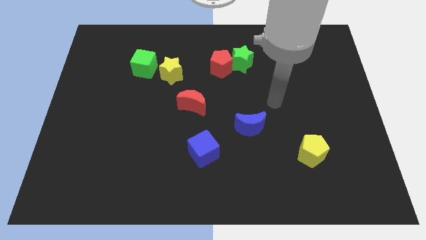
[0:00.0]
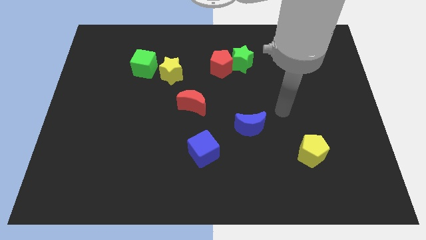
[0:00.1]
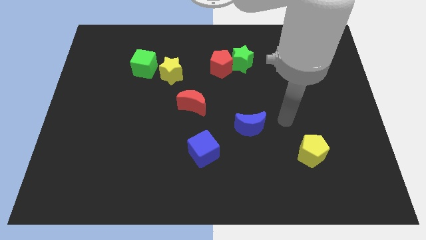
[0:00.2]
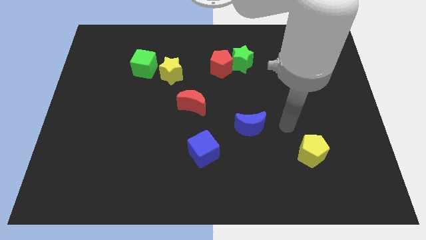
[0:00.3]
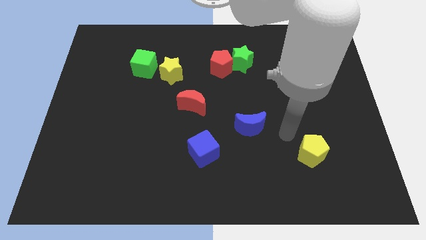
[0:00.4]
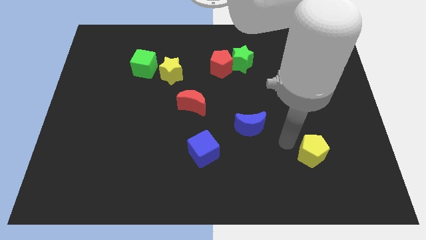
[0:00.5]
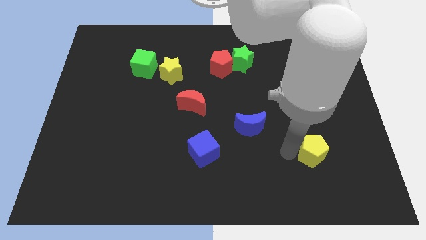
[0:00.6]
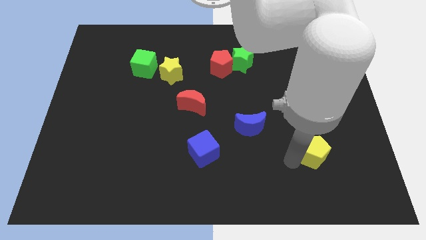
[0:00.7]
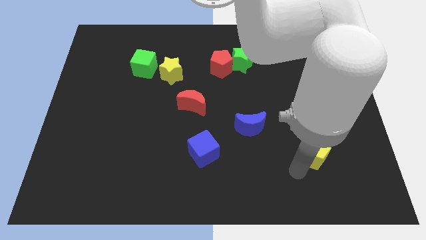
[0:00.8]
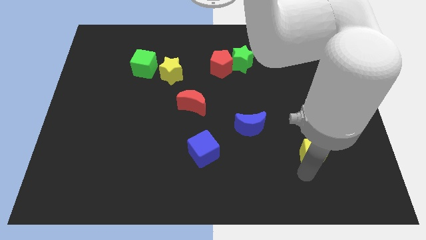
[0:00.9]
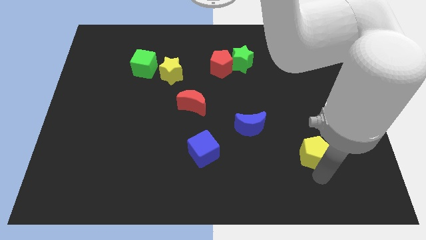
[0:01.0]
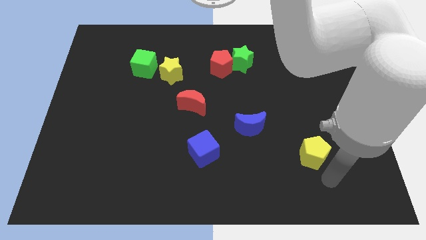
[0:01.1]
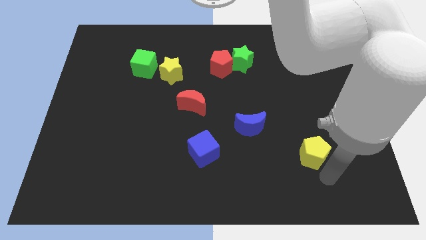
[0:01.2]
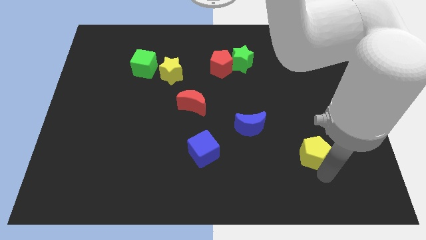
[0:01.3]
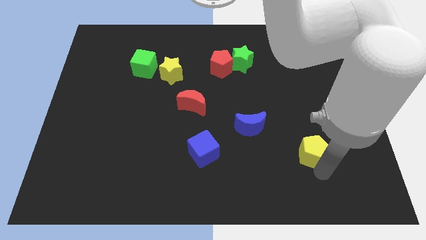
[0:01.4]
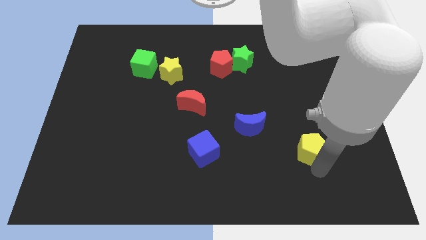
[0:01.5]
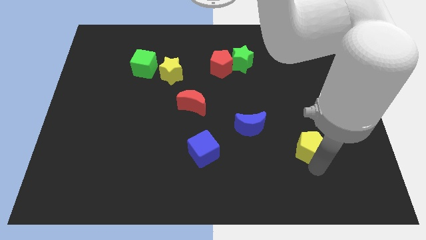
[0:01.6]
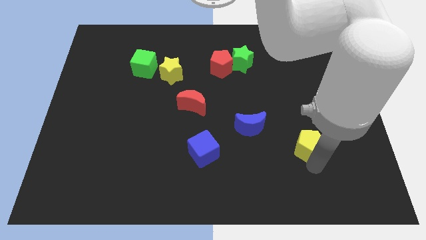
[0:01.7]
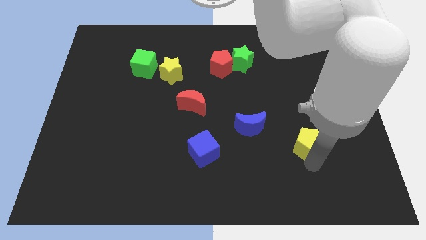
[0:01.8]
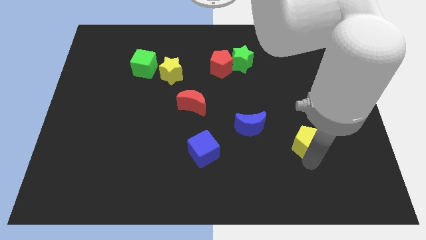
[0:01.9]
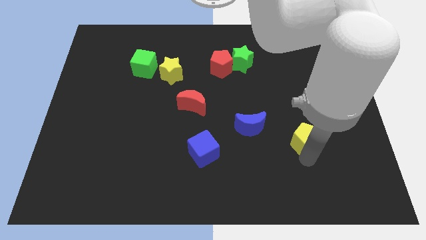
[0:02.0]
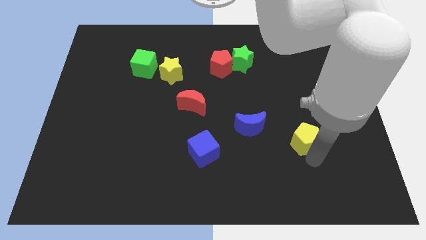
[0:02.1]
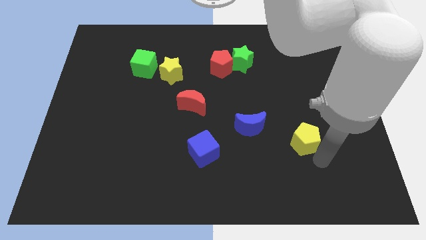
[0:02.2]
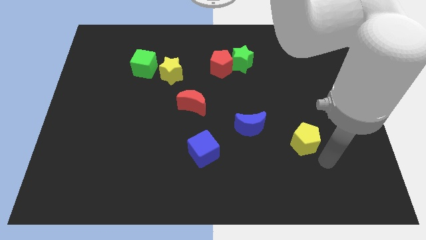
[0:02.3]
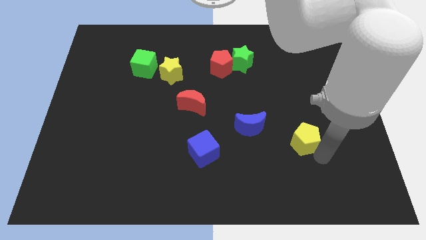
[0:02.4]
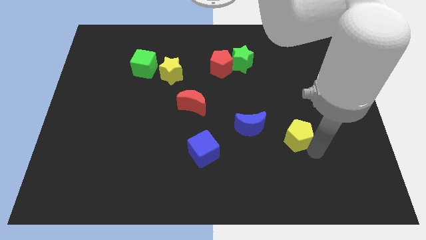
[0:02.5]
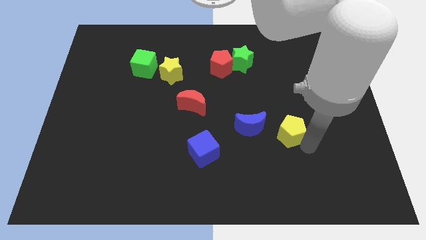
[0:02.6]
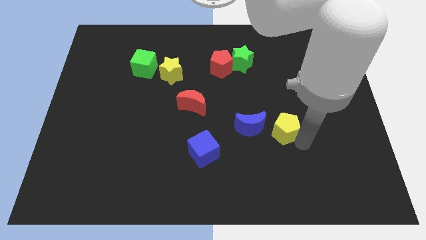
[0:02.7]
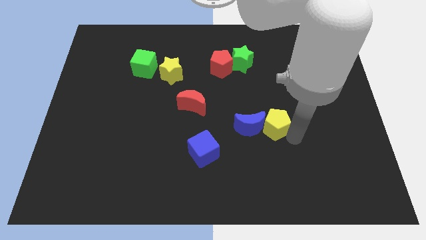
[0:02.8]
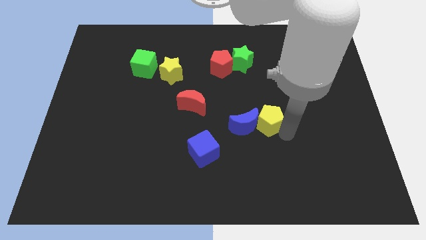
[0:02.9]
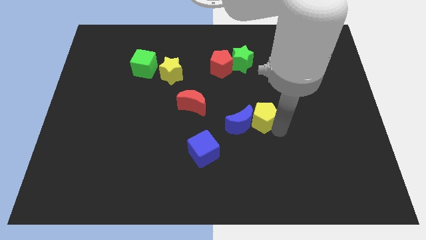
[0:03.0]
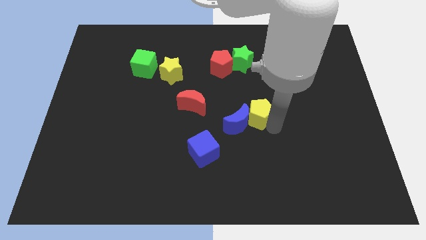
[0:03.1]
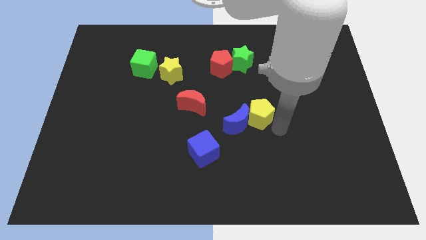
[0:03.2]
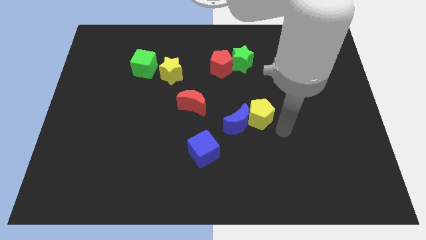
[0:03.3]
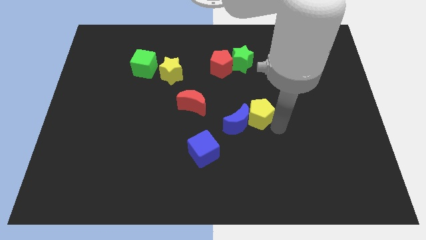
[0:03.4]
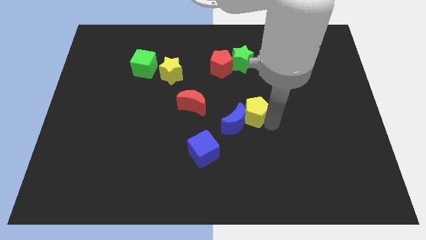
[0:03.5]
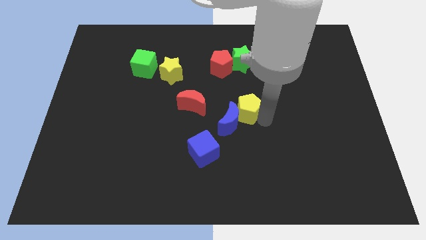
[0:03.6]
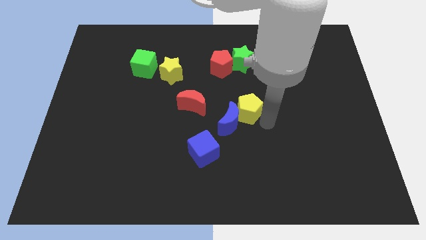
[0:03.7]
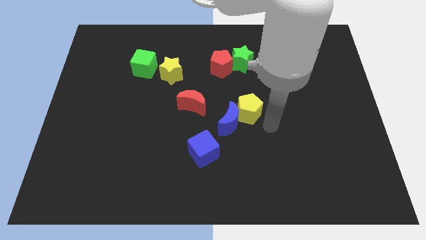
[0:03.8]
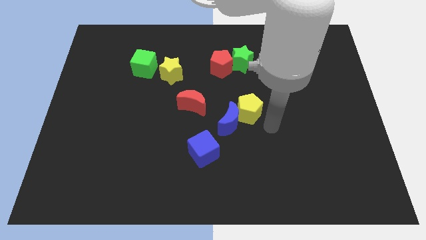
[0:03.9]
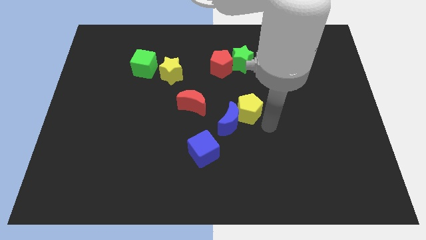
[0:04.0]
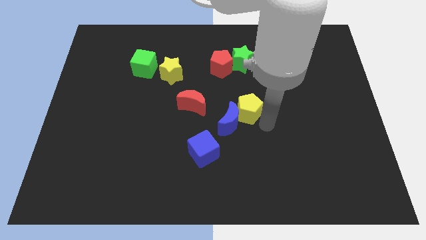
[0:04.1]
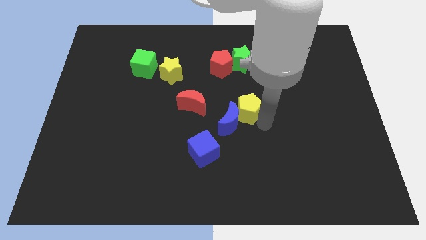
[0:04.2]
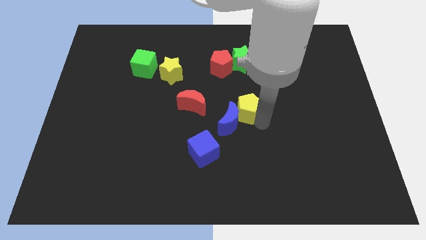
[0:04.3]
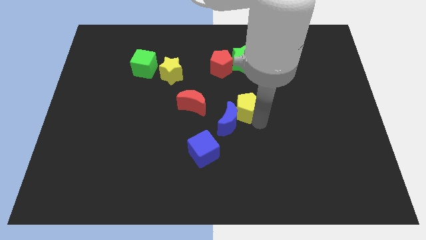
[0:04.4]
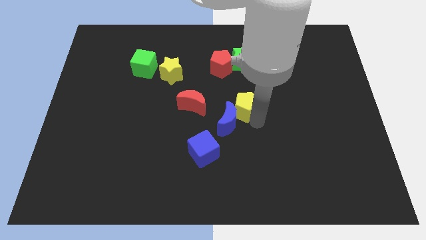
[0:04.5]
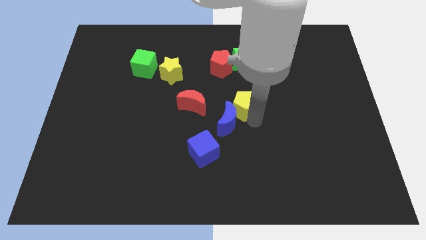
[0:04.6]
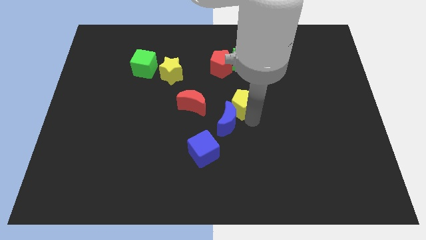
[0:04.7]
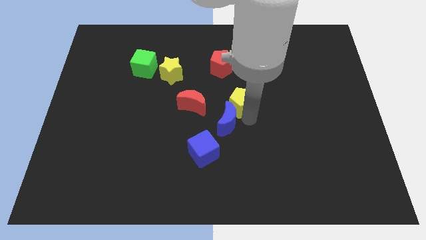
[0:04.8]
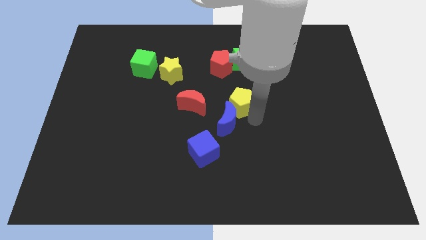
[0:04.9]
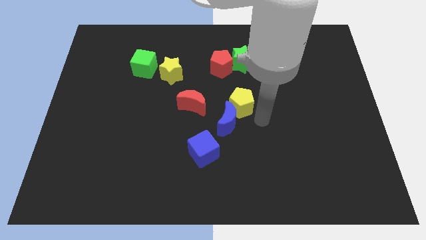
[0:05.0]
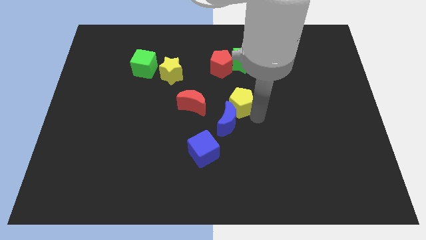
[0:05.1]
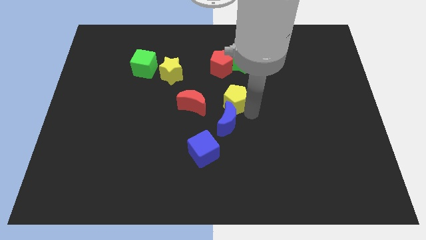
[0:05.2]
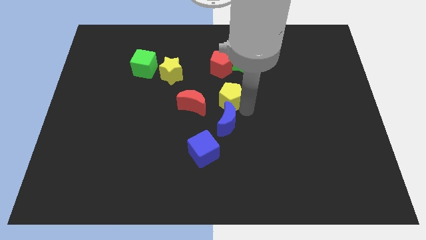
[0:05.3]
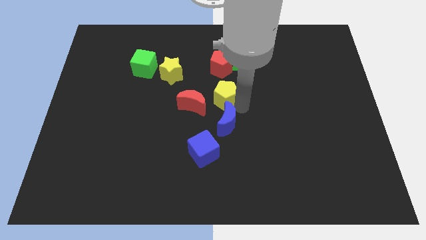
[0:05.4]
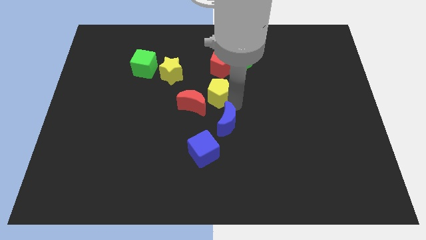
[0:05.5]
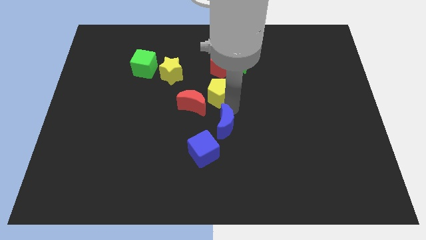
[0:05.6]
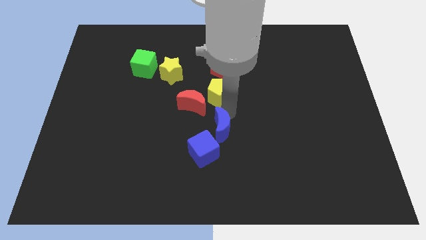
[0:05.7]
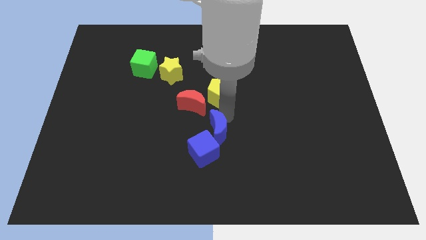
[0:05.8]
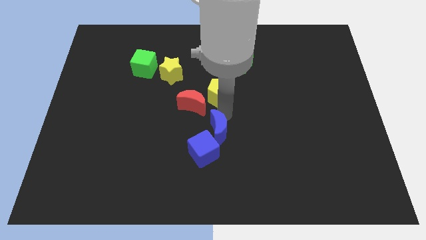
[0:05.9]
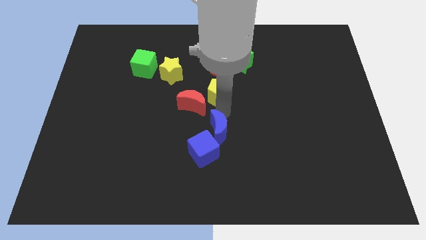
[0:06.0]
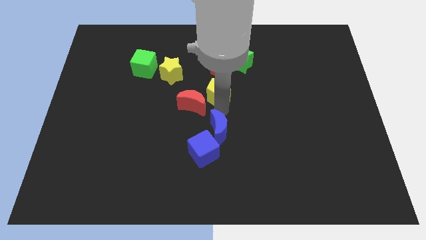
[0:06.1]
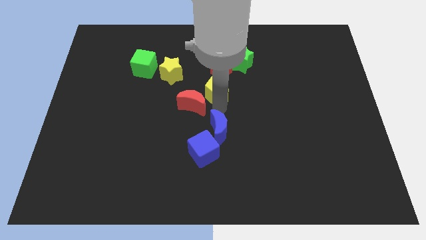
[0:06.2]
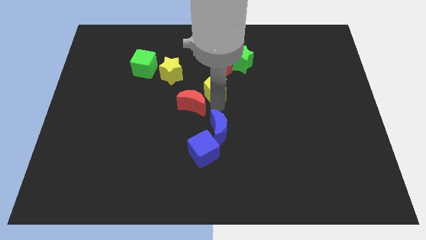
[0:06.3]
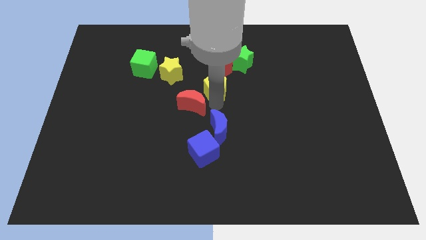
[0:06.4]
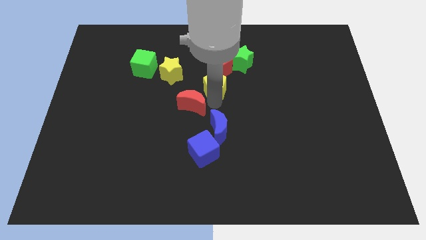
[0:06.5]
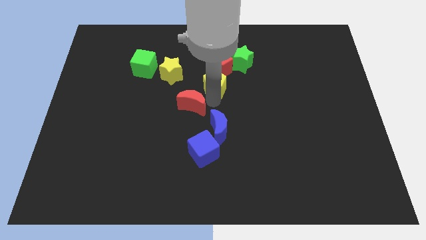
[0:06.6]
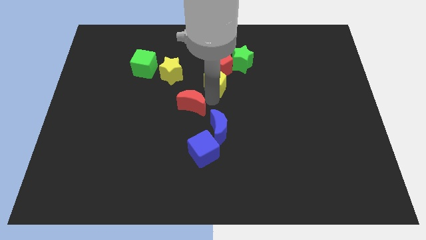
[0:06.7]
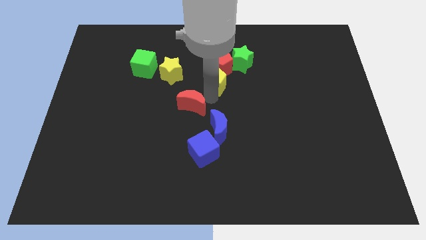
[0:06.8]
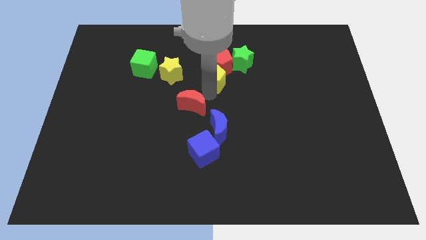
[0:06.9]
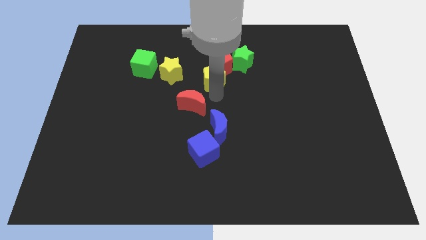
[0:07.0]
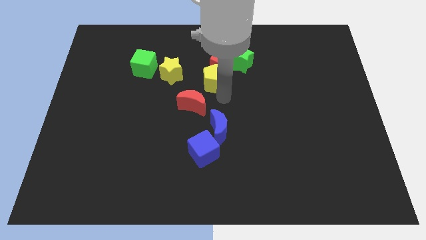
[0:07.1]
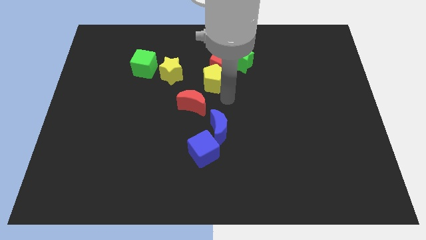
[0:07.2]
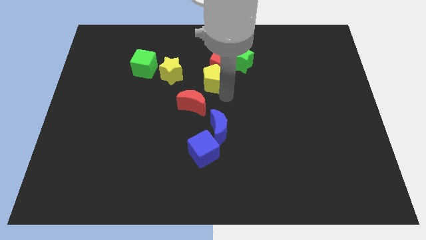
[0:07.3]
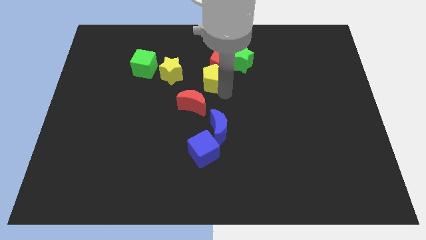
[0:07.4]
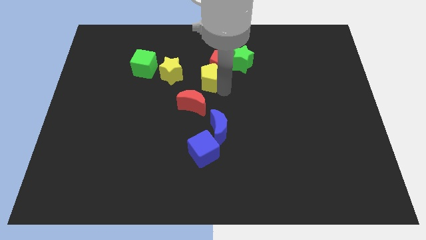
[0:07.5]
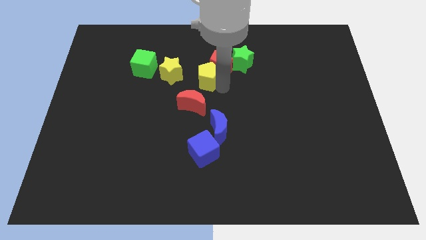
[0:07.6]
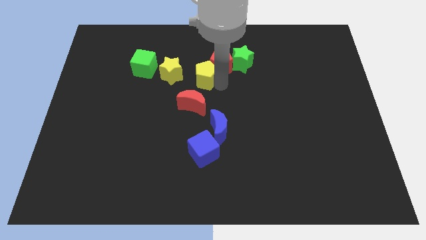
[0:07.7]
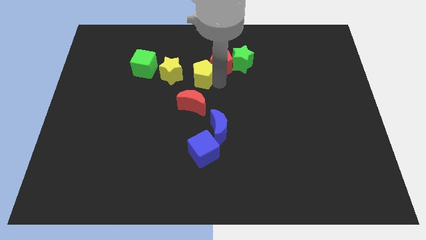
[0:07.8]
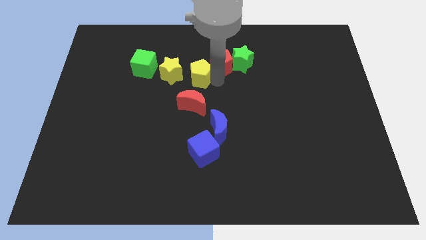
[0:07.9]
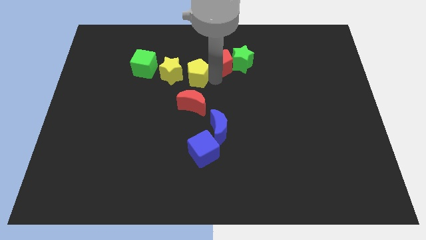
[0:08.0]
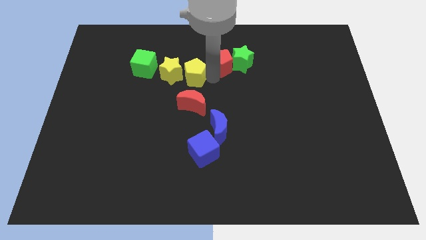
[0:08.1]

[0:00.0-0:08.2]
slide the yellow pentagon to the top right of the yellow star
